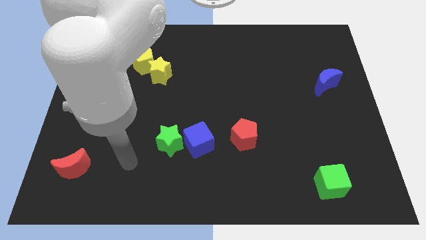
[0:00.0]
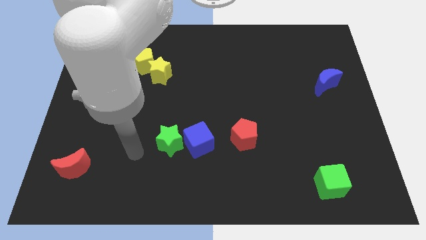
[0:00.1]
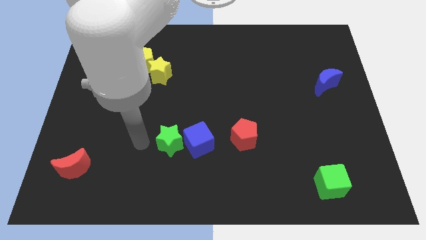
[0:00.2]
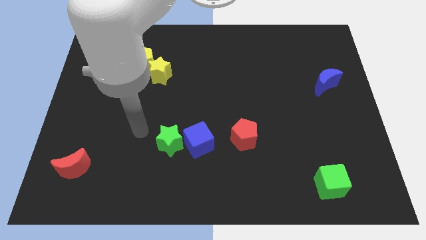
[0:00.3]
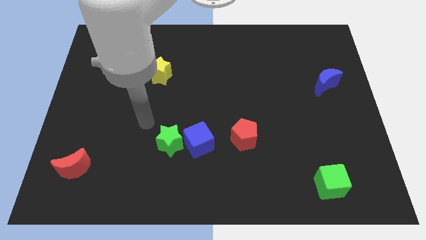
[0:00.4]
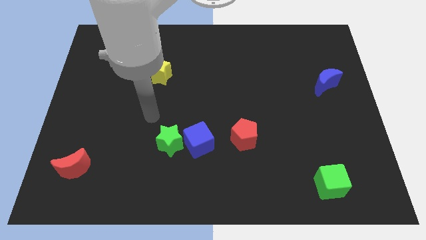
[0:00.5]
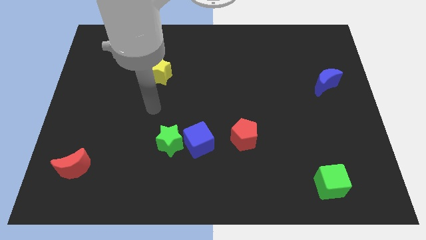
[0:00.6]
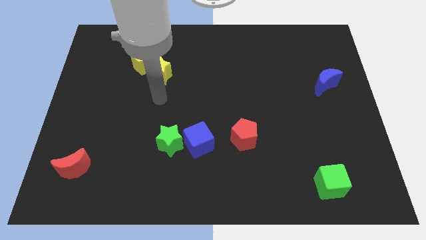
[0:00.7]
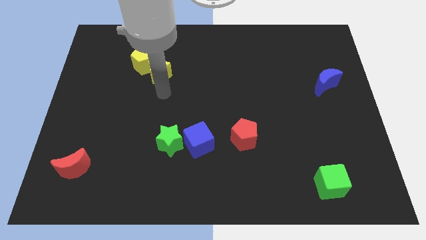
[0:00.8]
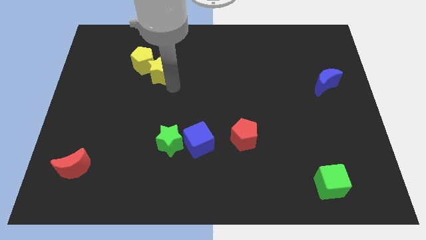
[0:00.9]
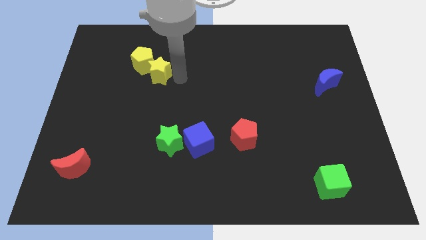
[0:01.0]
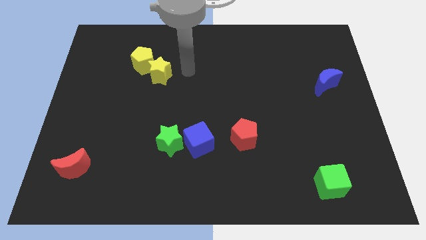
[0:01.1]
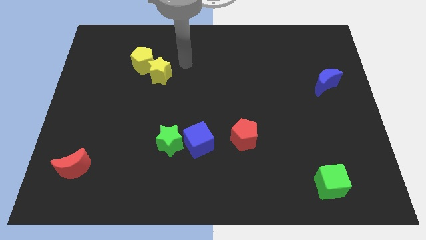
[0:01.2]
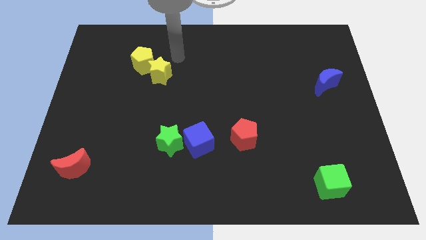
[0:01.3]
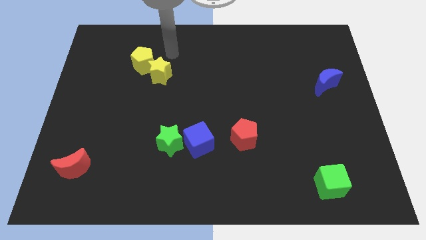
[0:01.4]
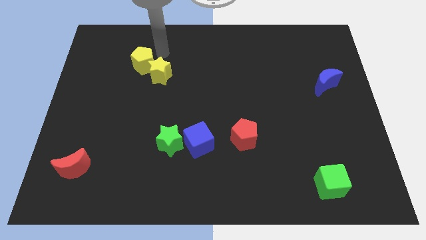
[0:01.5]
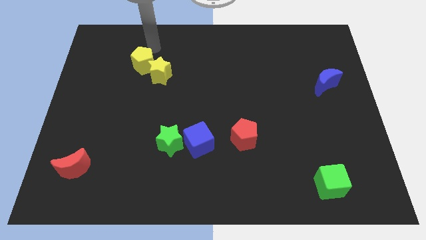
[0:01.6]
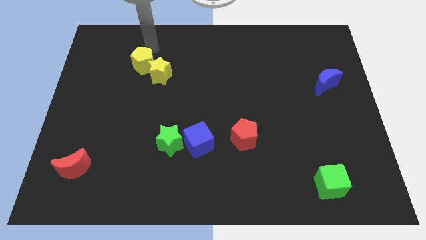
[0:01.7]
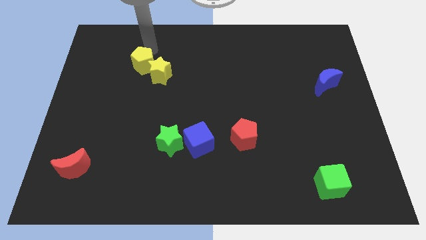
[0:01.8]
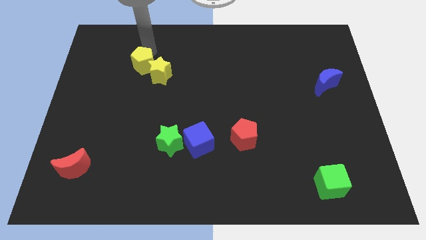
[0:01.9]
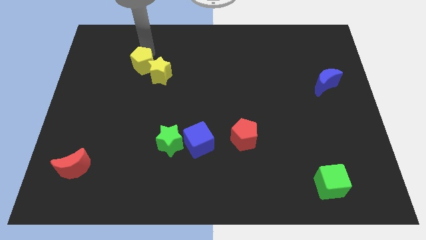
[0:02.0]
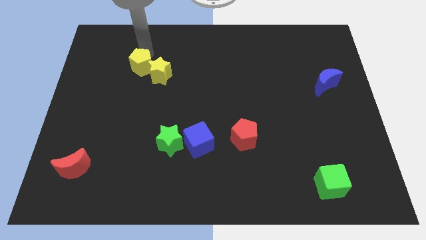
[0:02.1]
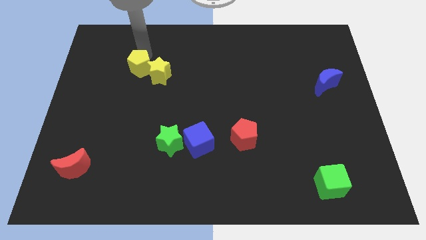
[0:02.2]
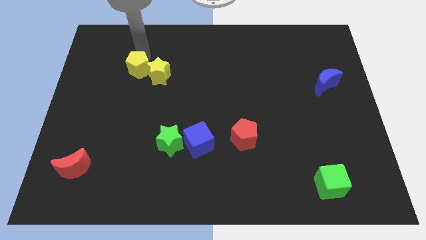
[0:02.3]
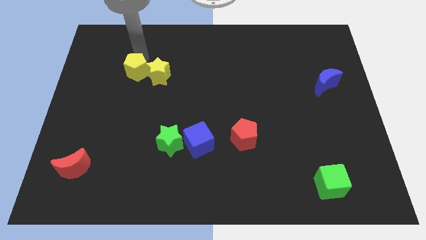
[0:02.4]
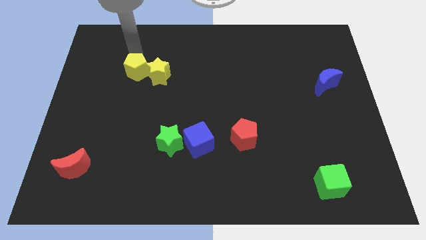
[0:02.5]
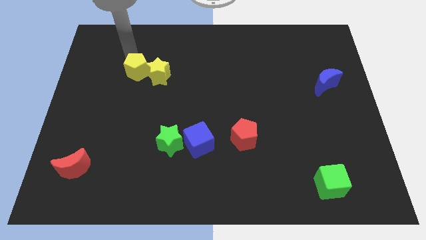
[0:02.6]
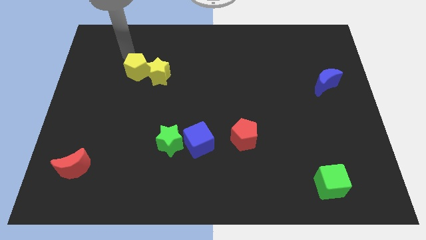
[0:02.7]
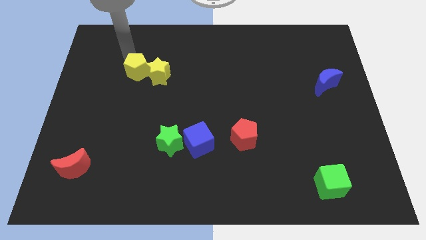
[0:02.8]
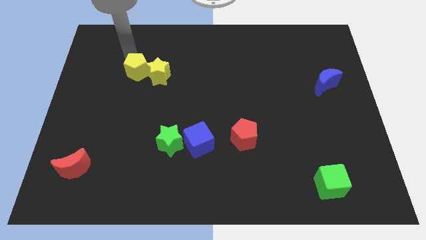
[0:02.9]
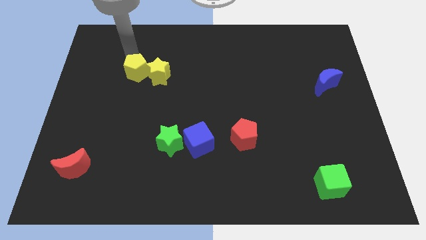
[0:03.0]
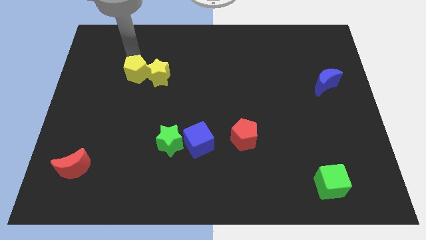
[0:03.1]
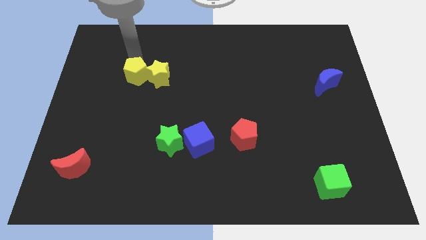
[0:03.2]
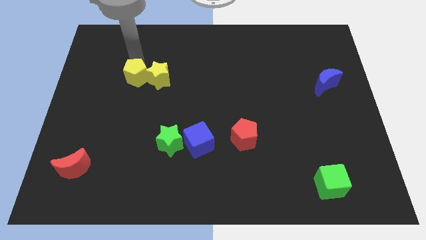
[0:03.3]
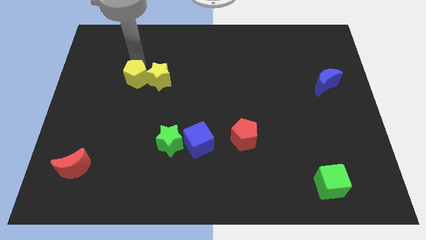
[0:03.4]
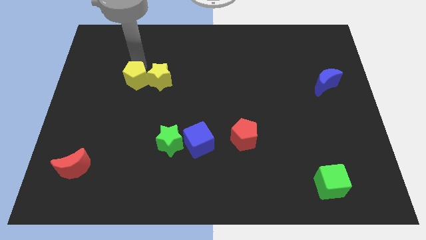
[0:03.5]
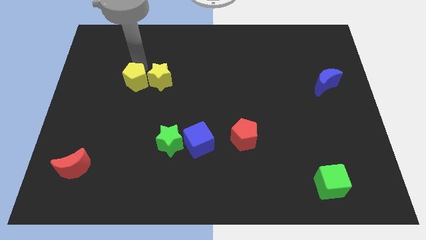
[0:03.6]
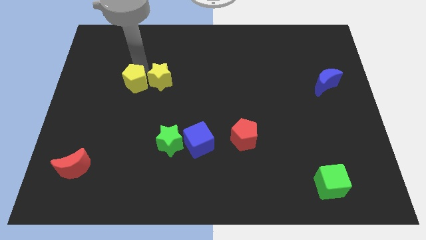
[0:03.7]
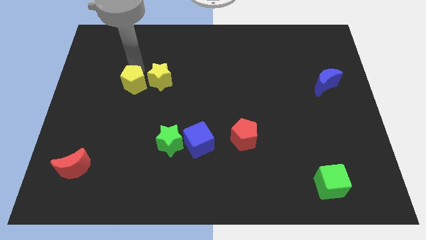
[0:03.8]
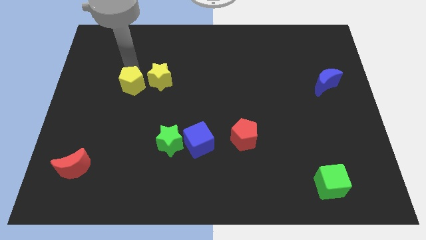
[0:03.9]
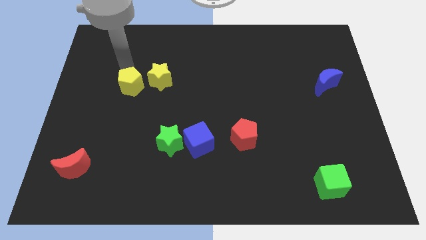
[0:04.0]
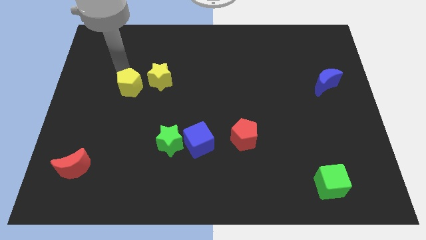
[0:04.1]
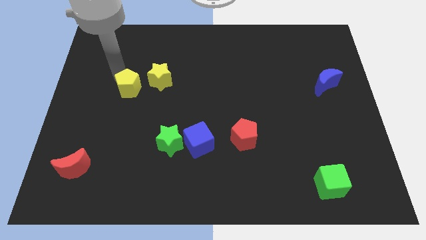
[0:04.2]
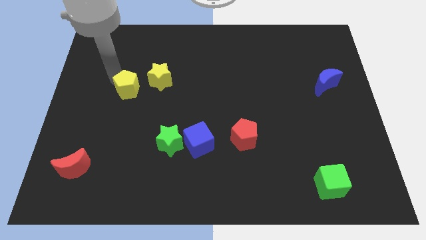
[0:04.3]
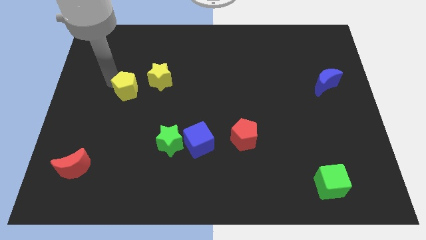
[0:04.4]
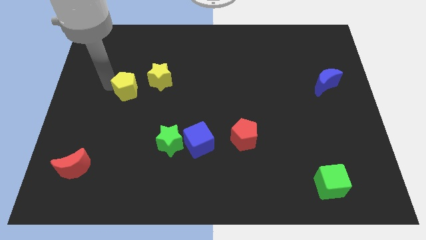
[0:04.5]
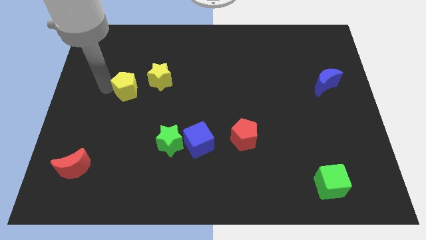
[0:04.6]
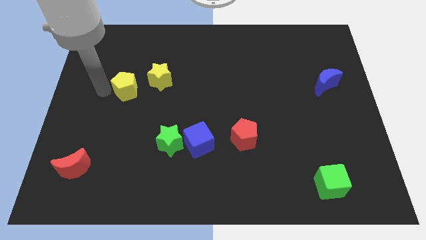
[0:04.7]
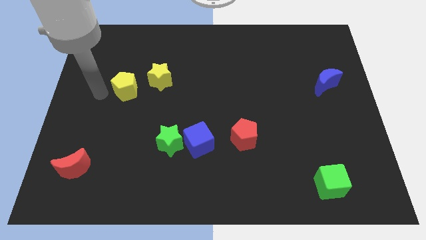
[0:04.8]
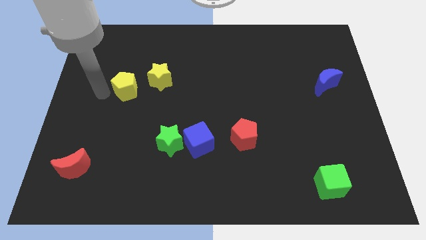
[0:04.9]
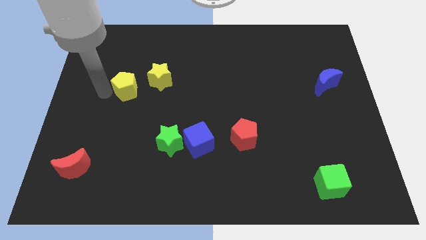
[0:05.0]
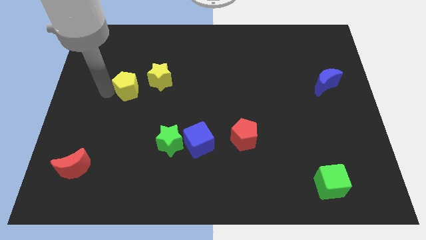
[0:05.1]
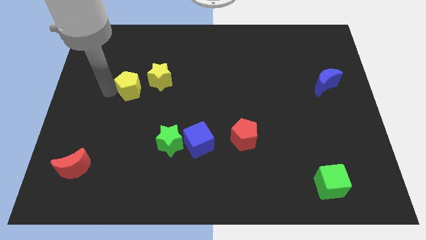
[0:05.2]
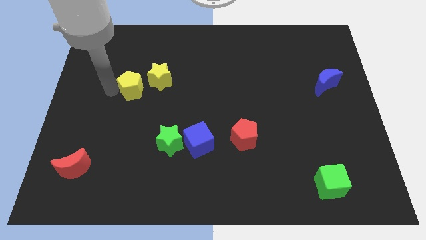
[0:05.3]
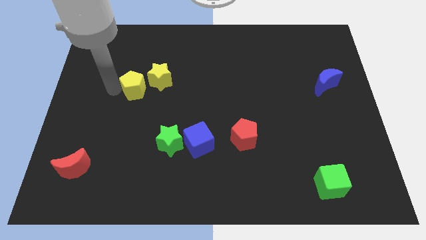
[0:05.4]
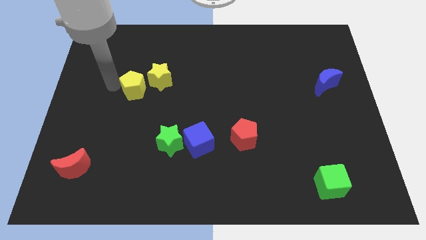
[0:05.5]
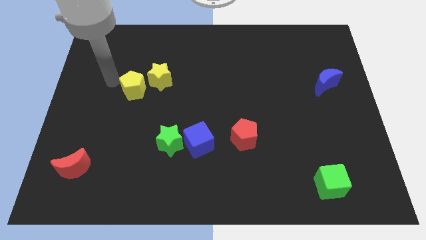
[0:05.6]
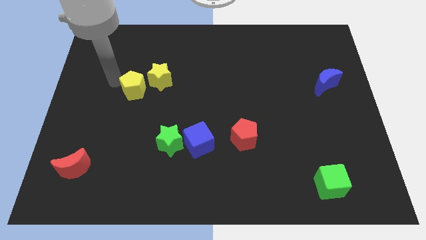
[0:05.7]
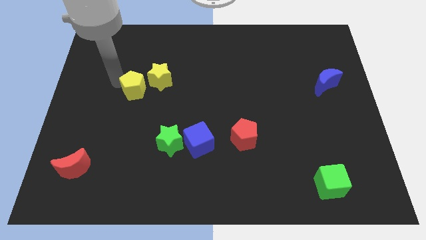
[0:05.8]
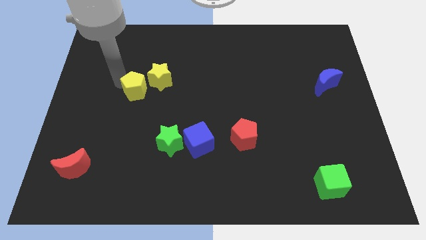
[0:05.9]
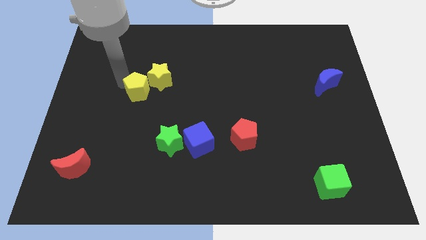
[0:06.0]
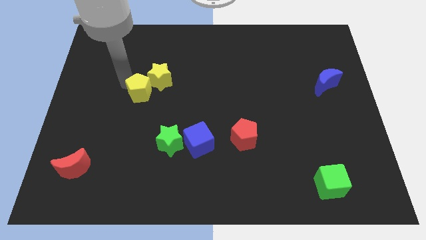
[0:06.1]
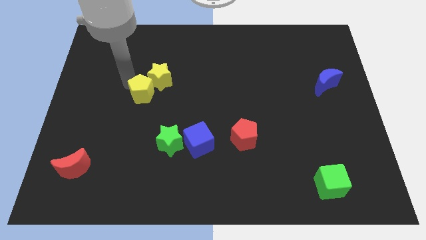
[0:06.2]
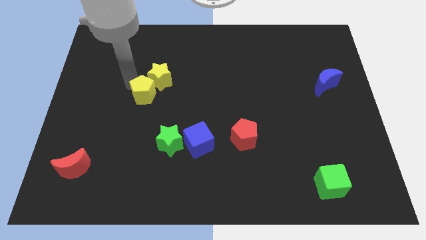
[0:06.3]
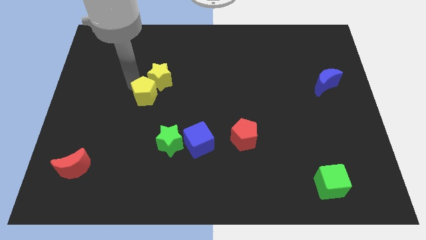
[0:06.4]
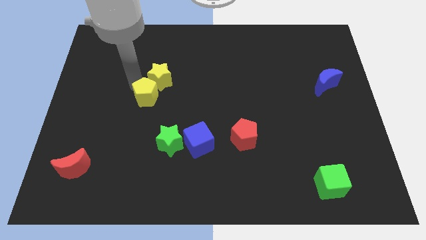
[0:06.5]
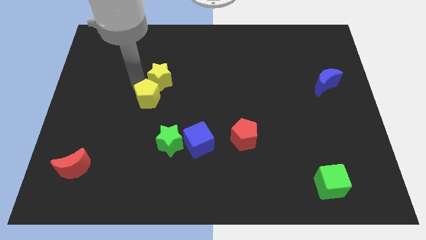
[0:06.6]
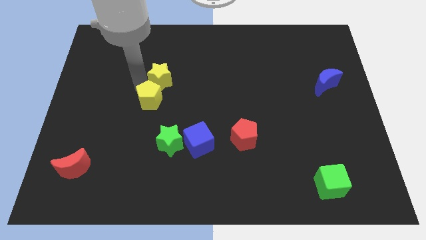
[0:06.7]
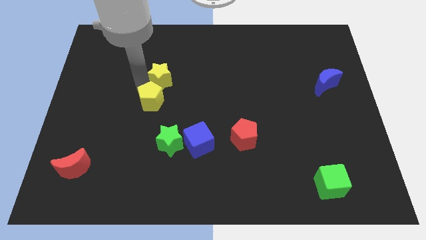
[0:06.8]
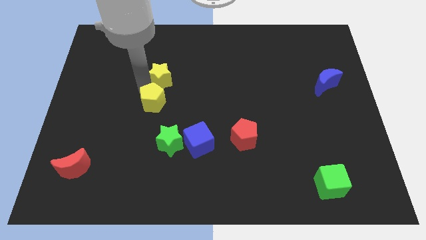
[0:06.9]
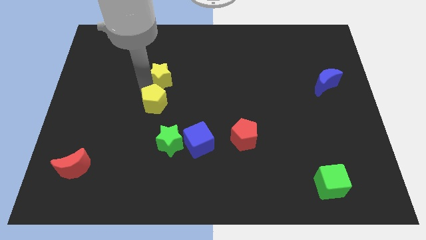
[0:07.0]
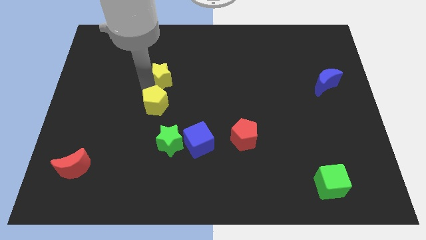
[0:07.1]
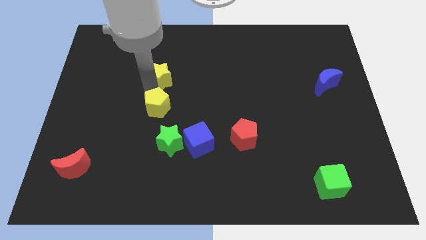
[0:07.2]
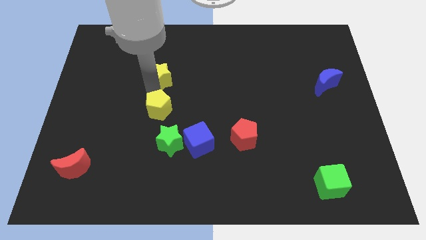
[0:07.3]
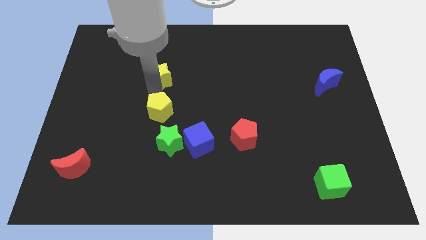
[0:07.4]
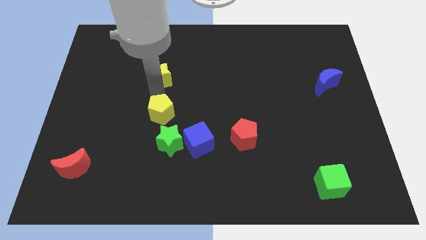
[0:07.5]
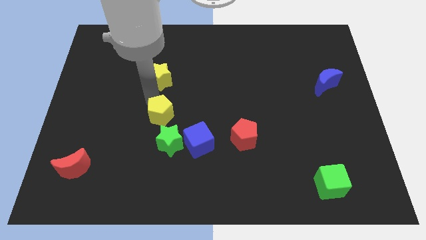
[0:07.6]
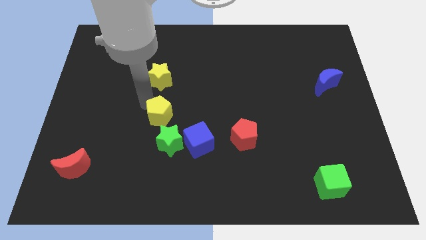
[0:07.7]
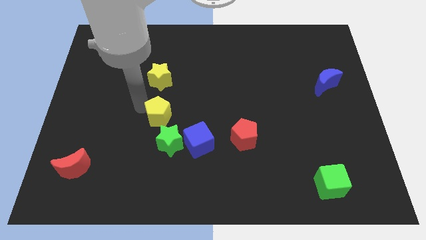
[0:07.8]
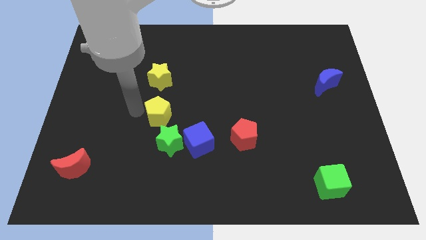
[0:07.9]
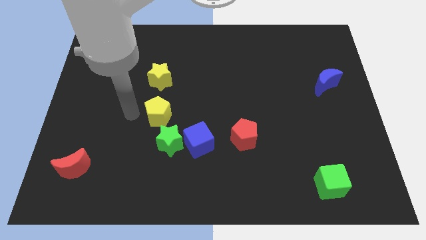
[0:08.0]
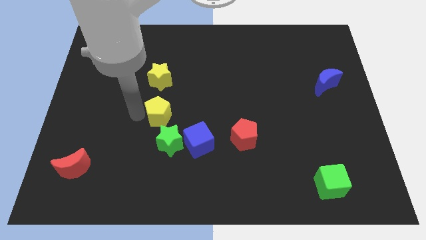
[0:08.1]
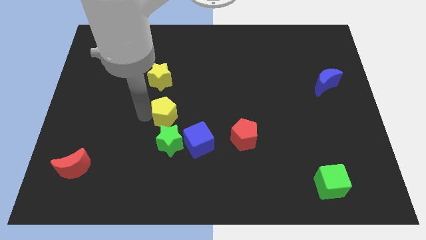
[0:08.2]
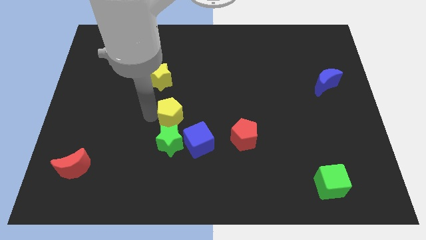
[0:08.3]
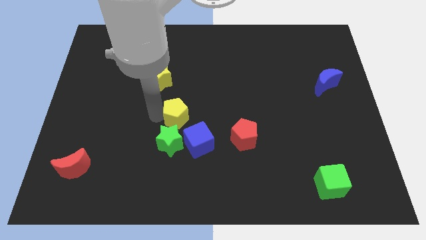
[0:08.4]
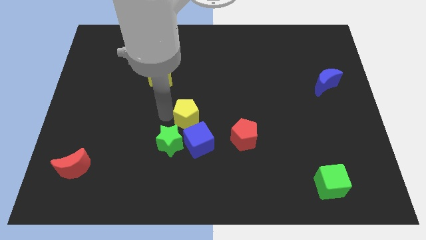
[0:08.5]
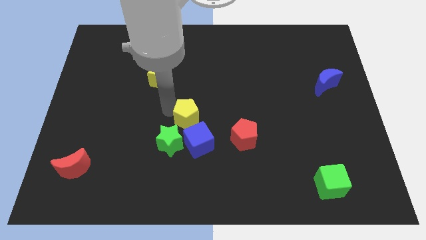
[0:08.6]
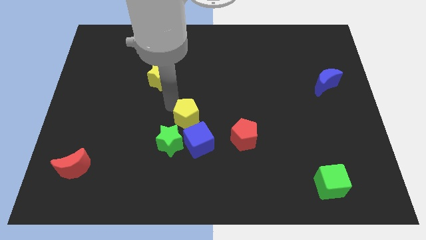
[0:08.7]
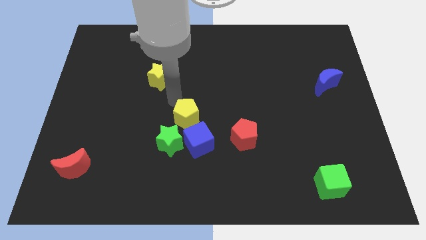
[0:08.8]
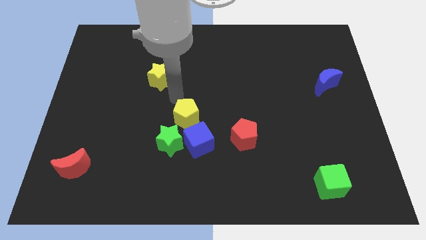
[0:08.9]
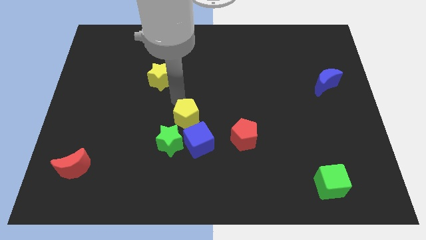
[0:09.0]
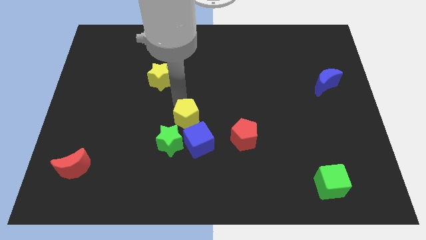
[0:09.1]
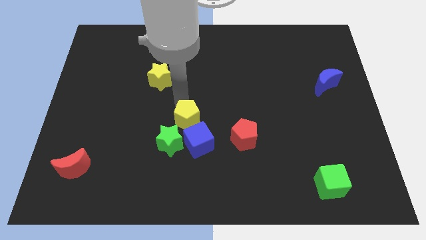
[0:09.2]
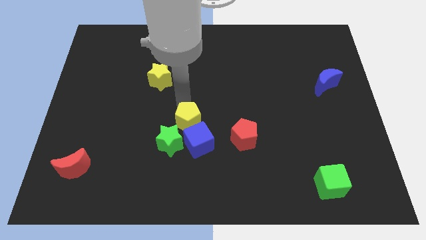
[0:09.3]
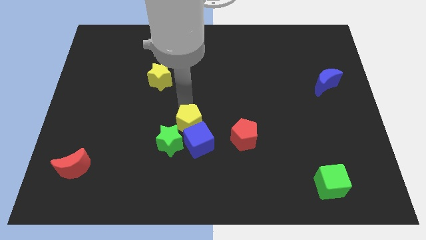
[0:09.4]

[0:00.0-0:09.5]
slide the yellow pentagon close to the blue cube
